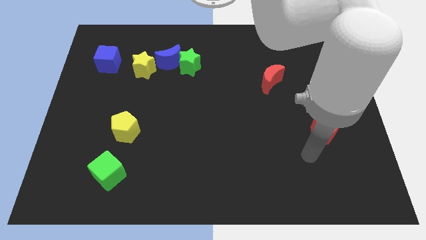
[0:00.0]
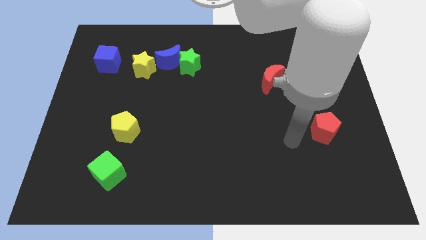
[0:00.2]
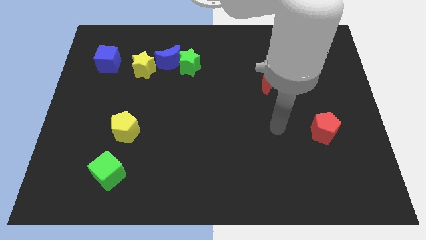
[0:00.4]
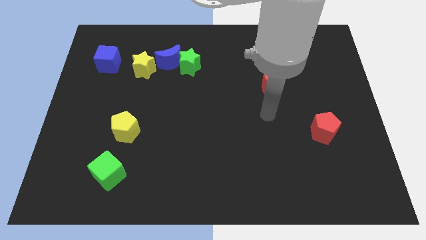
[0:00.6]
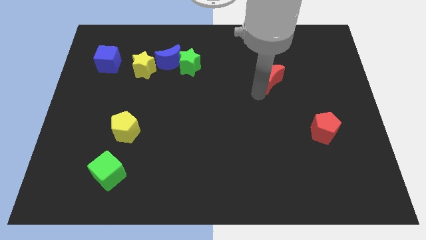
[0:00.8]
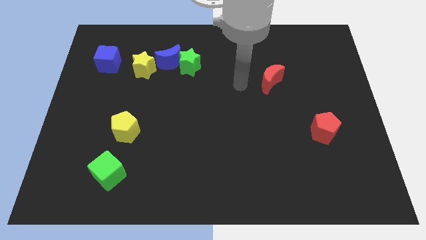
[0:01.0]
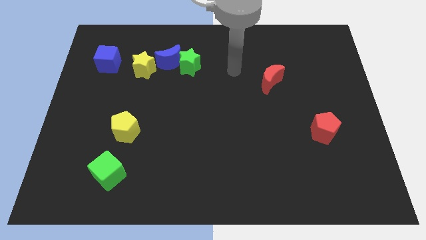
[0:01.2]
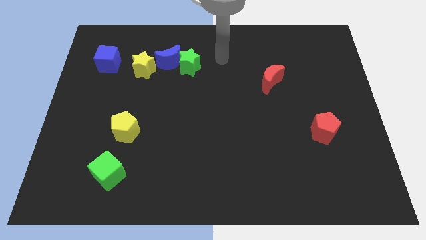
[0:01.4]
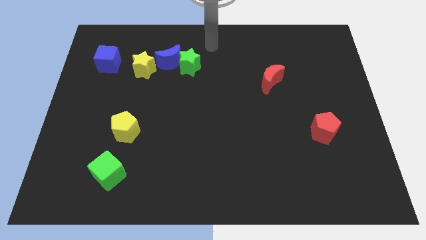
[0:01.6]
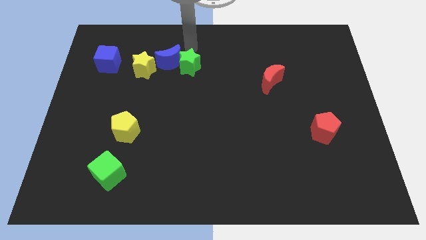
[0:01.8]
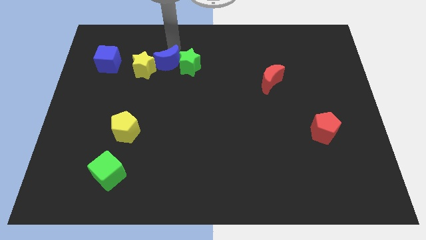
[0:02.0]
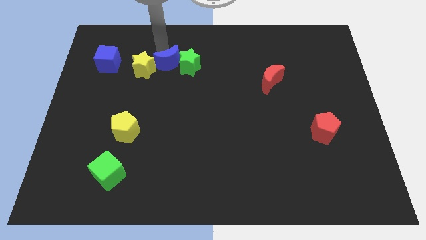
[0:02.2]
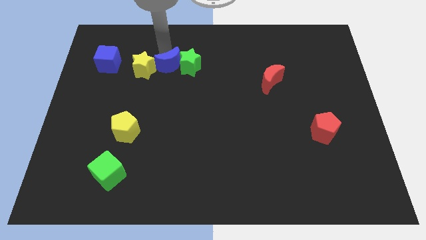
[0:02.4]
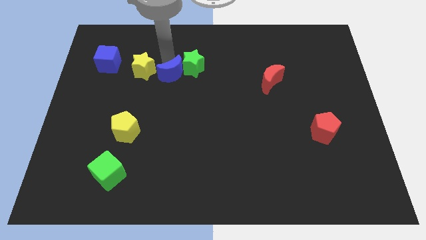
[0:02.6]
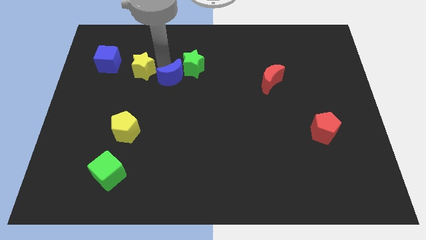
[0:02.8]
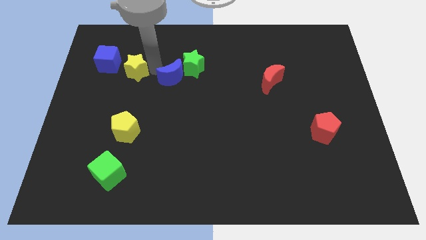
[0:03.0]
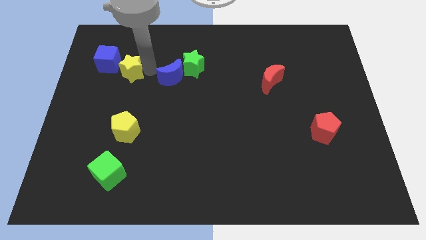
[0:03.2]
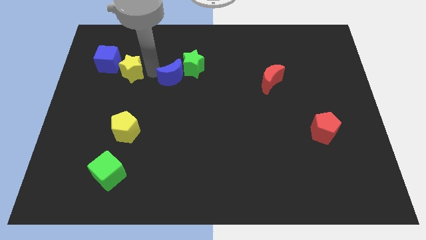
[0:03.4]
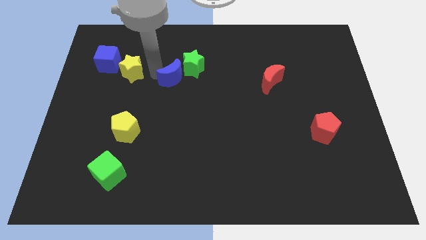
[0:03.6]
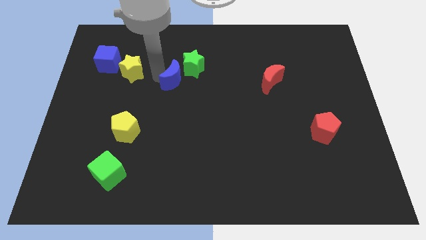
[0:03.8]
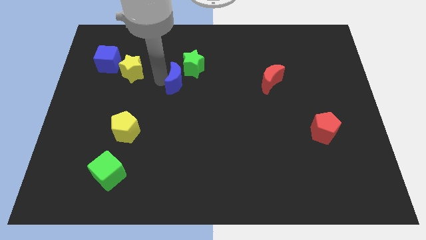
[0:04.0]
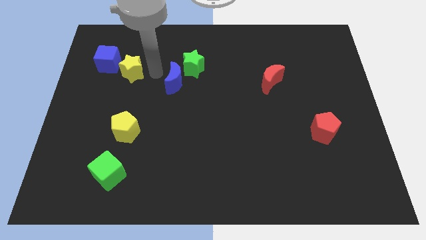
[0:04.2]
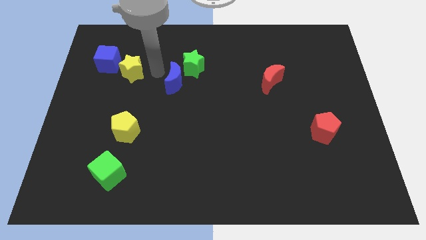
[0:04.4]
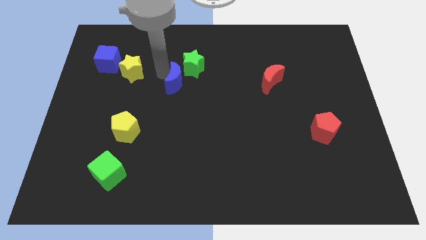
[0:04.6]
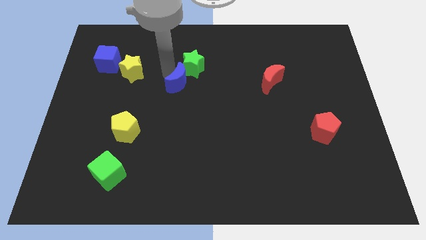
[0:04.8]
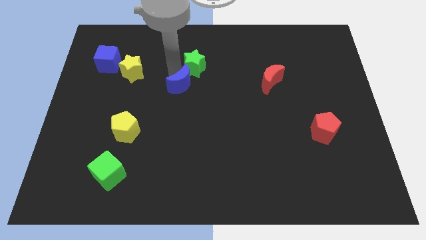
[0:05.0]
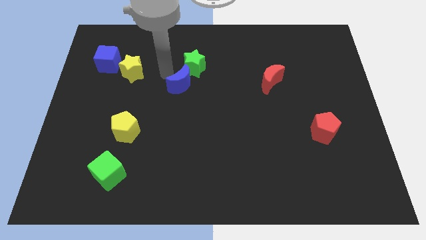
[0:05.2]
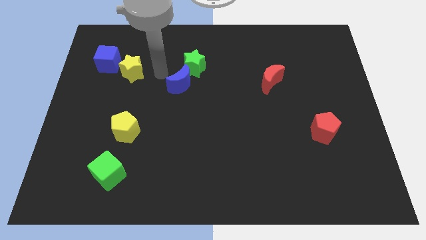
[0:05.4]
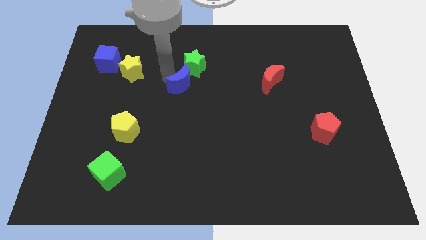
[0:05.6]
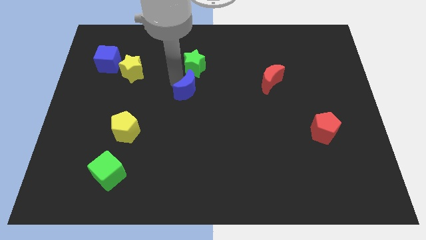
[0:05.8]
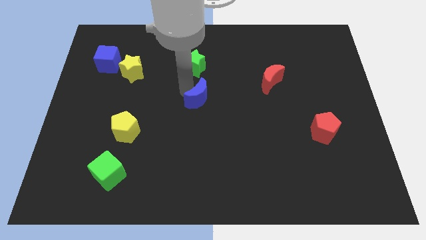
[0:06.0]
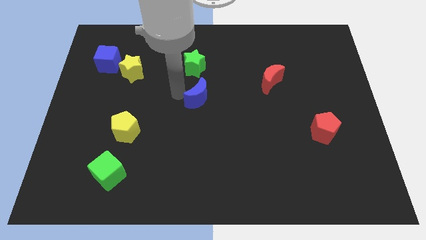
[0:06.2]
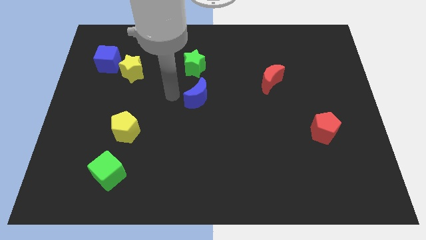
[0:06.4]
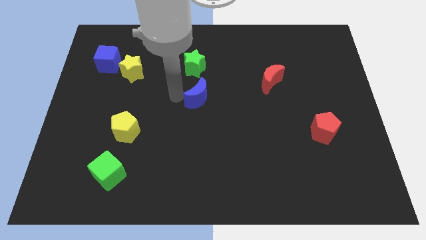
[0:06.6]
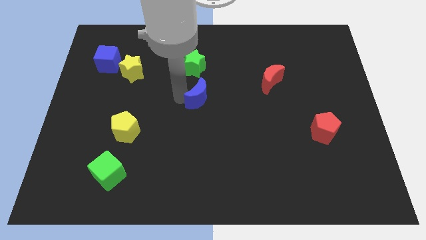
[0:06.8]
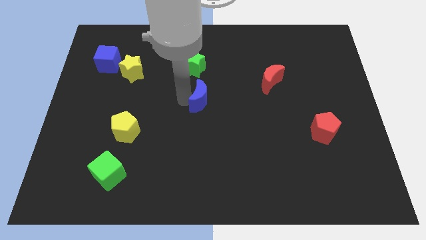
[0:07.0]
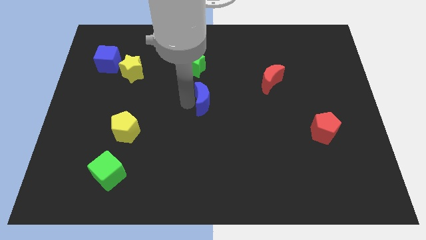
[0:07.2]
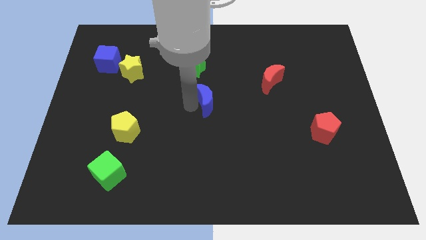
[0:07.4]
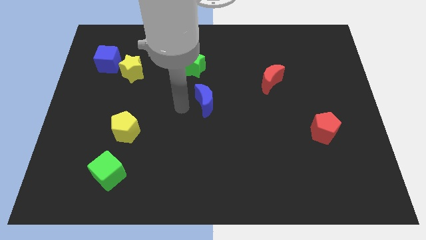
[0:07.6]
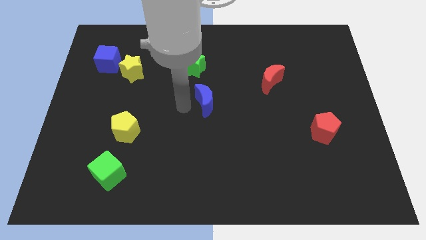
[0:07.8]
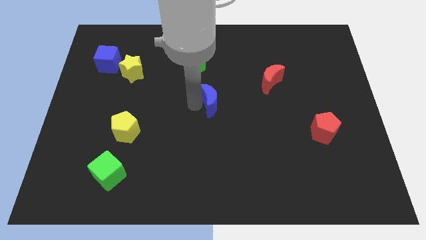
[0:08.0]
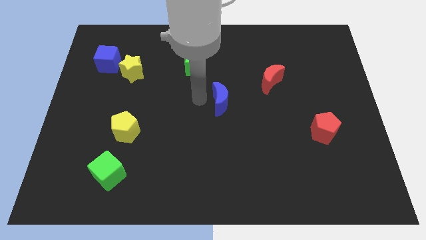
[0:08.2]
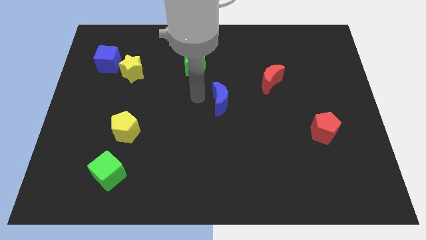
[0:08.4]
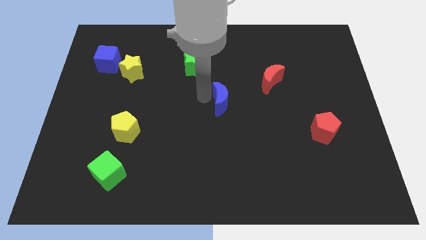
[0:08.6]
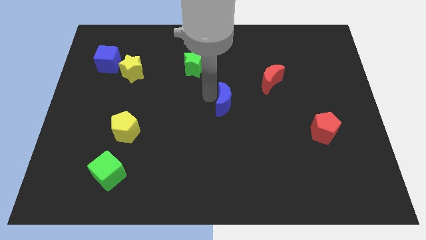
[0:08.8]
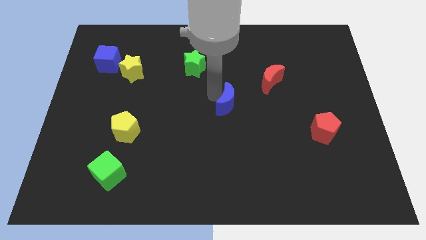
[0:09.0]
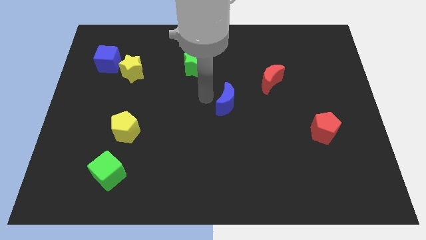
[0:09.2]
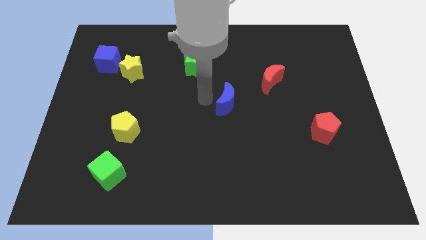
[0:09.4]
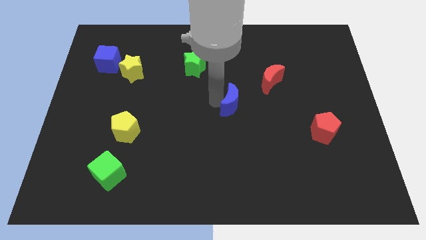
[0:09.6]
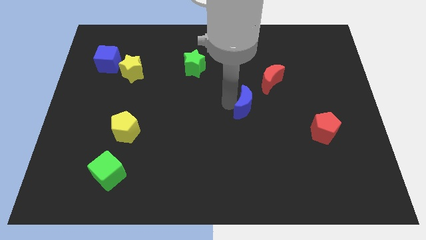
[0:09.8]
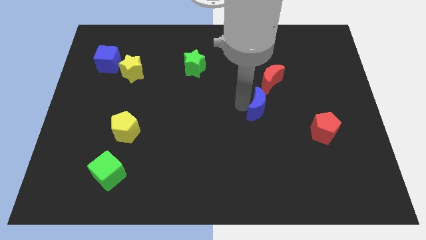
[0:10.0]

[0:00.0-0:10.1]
push the blue moon below the red moon

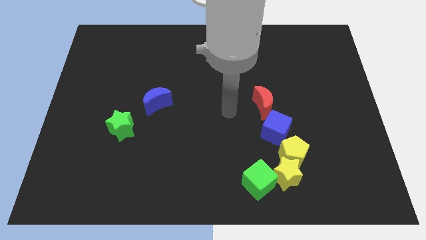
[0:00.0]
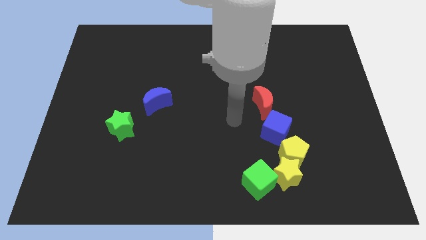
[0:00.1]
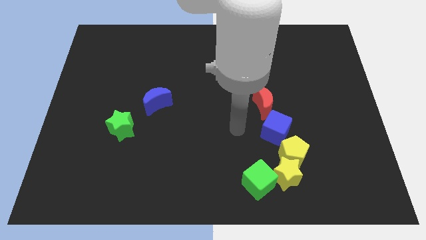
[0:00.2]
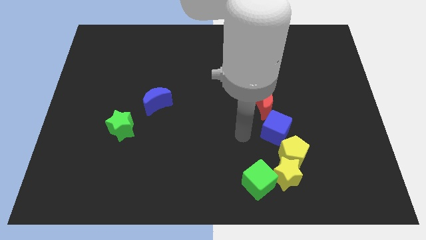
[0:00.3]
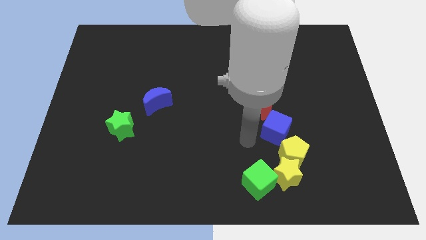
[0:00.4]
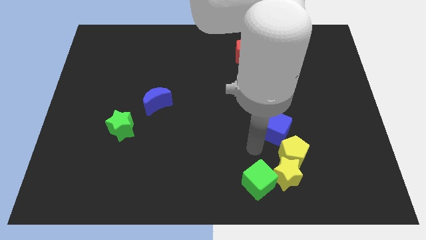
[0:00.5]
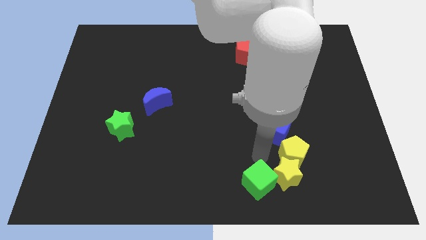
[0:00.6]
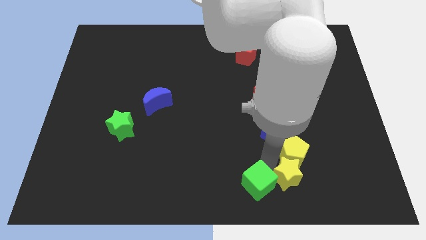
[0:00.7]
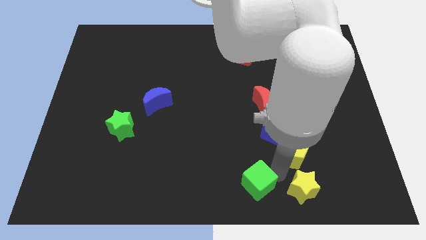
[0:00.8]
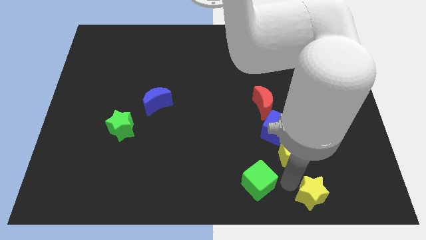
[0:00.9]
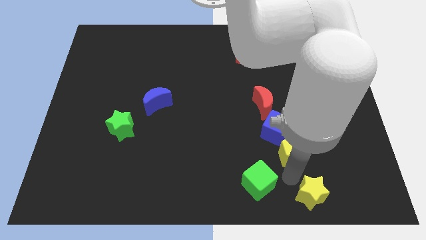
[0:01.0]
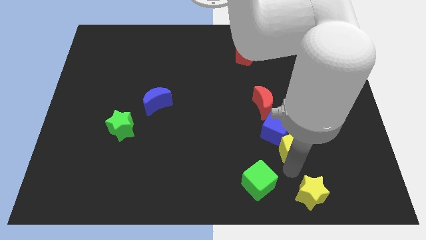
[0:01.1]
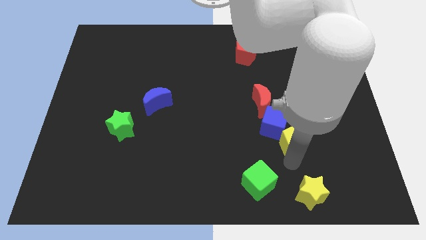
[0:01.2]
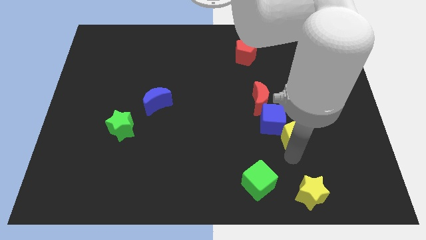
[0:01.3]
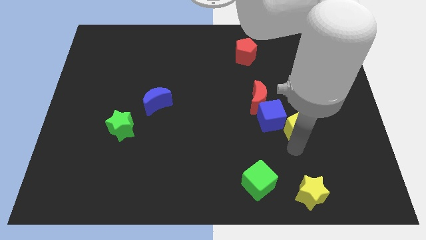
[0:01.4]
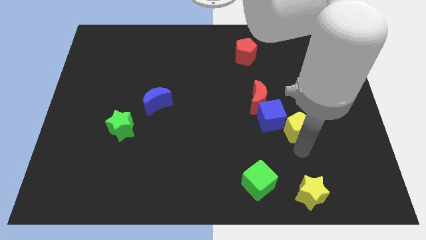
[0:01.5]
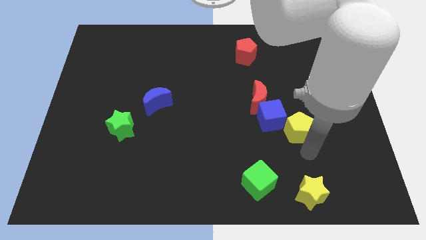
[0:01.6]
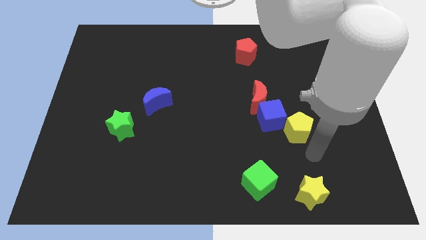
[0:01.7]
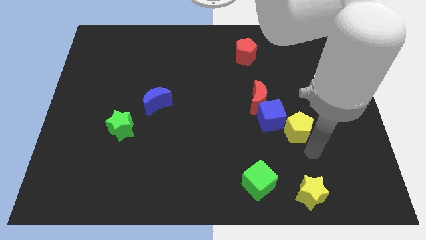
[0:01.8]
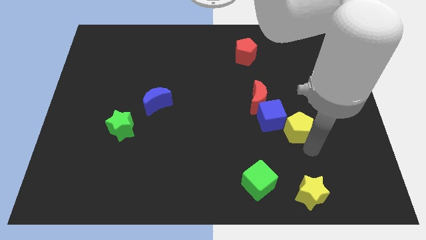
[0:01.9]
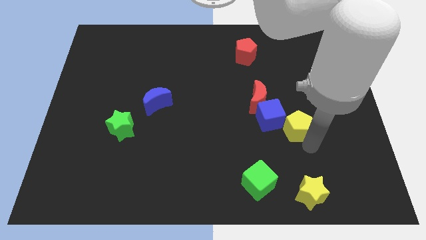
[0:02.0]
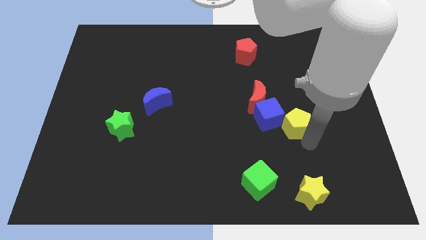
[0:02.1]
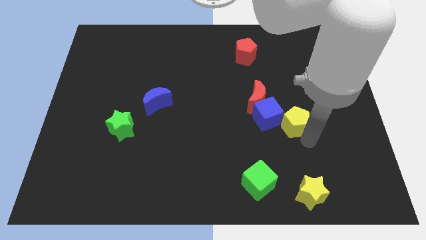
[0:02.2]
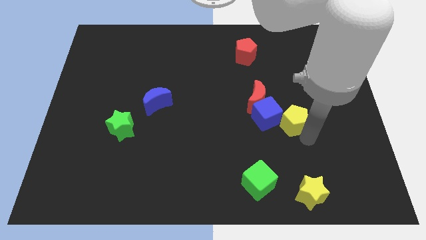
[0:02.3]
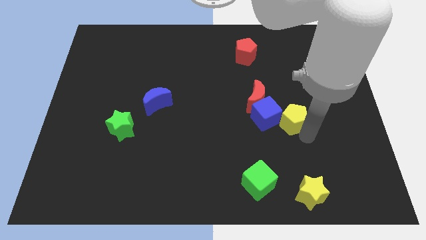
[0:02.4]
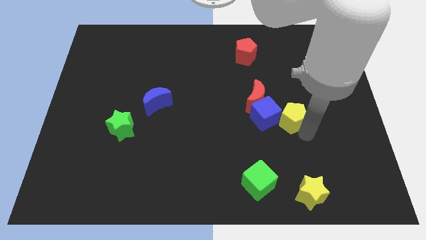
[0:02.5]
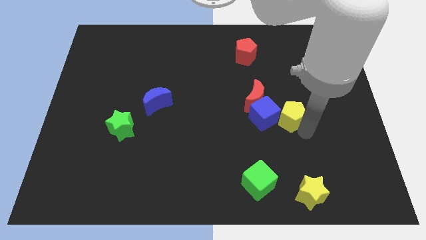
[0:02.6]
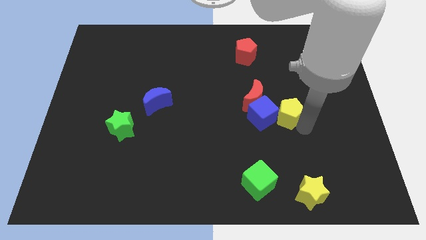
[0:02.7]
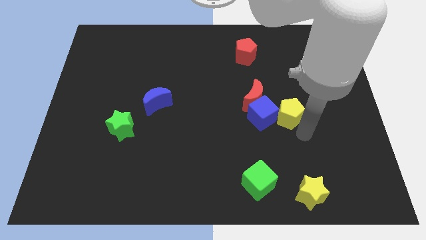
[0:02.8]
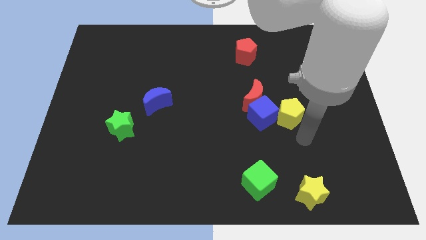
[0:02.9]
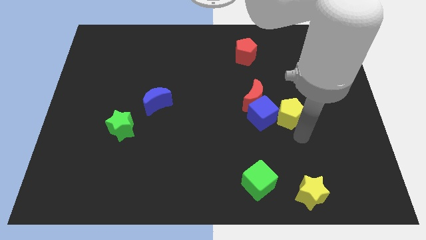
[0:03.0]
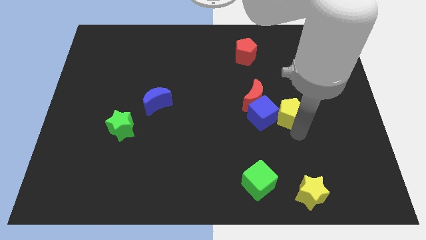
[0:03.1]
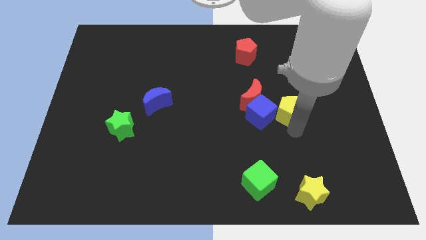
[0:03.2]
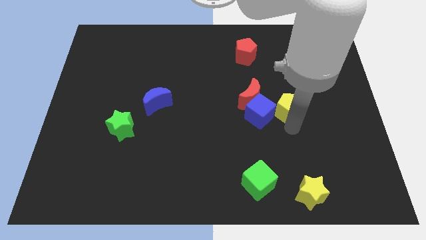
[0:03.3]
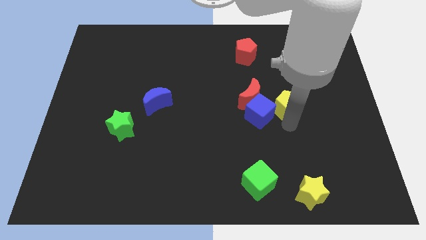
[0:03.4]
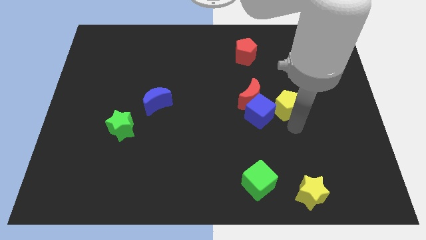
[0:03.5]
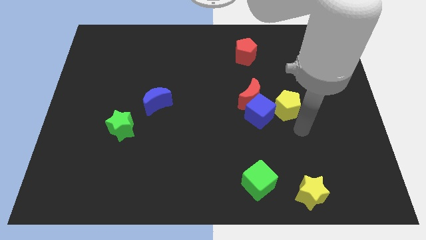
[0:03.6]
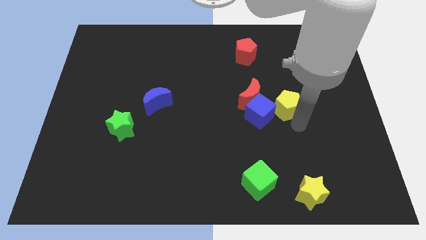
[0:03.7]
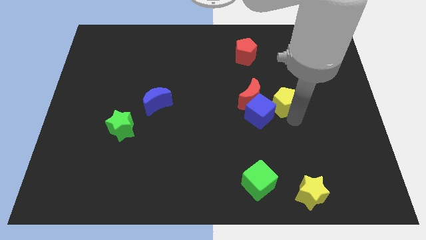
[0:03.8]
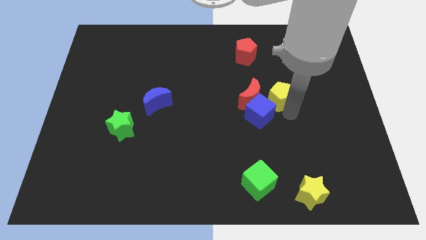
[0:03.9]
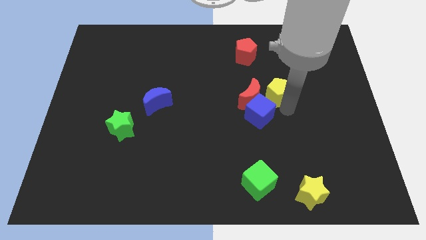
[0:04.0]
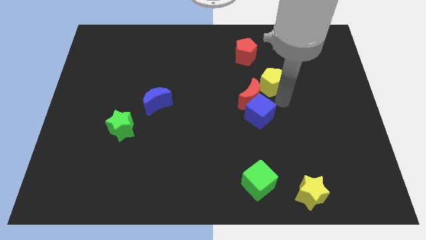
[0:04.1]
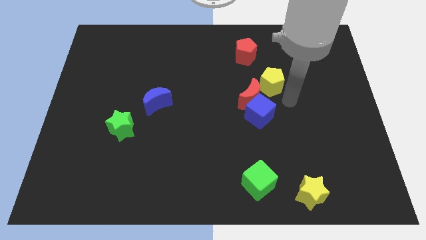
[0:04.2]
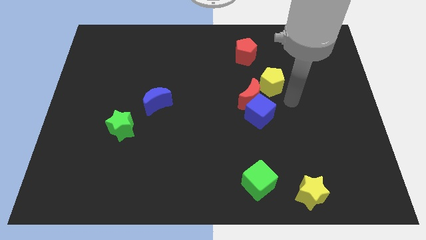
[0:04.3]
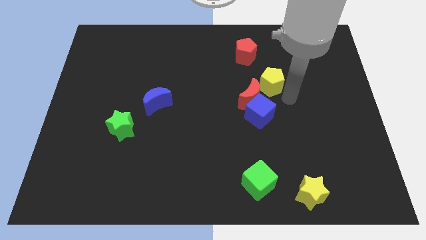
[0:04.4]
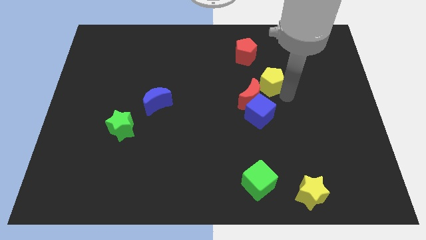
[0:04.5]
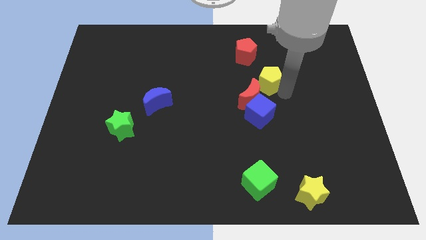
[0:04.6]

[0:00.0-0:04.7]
move the yellow pentagon to the top side of the red moon
